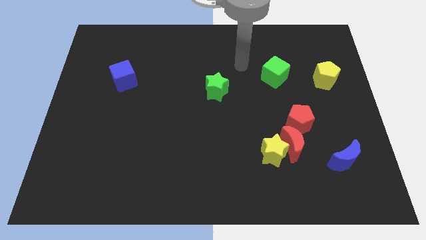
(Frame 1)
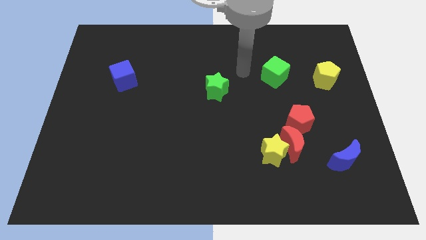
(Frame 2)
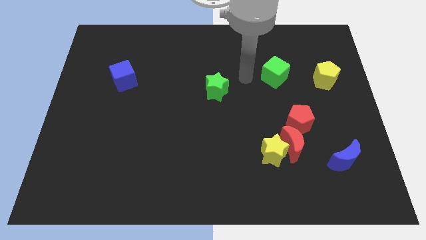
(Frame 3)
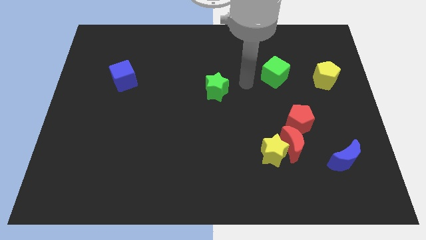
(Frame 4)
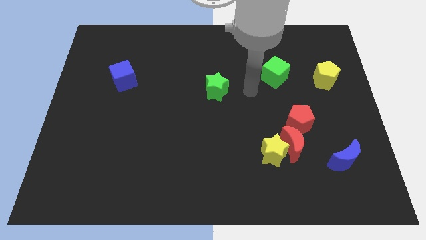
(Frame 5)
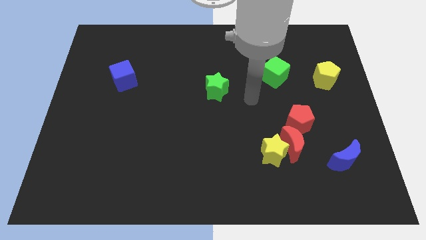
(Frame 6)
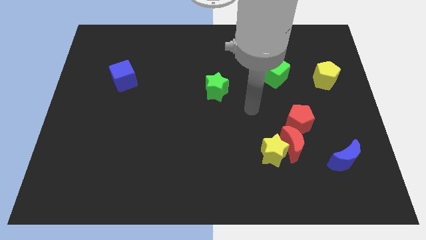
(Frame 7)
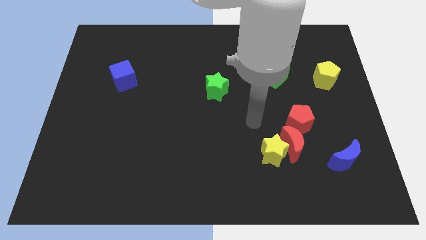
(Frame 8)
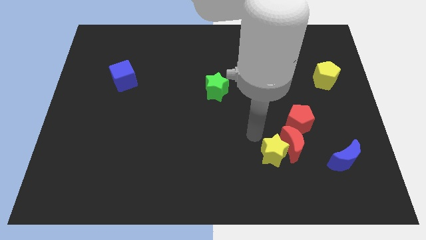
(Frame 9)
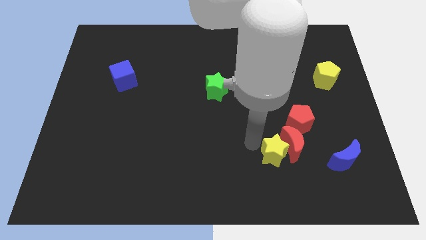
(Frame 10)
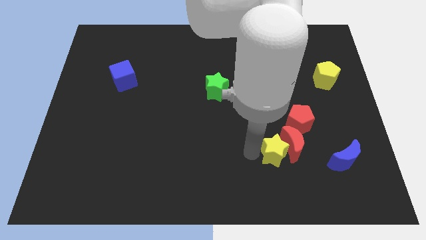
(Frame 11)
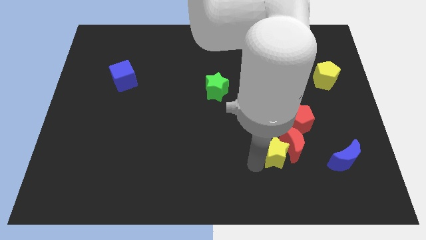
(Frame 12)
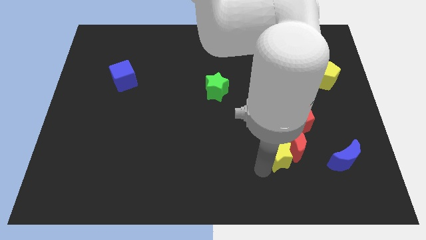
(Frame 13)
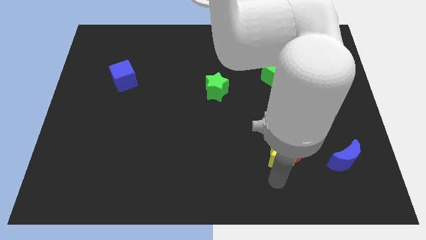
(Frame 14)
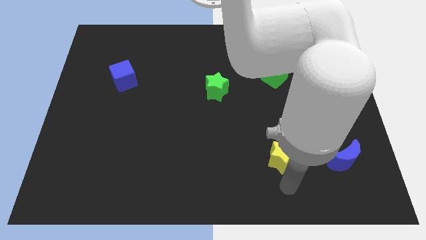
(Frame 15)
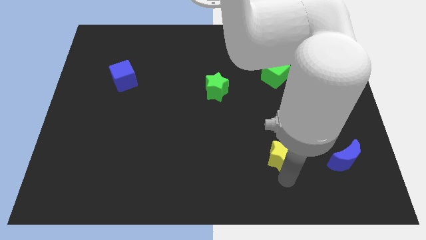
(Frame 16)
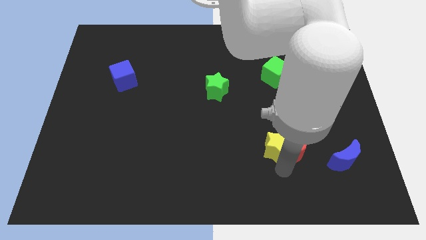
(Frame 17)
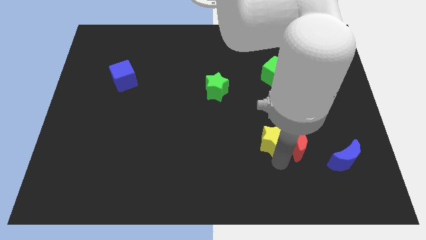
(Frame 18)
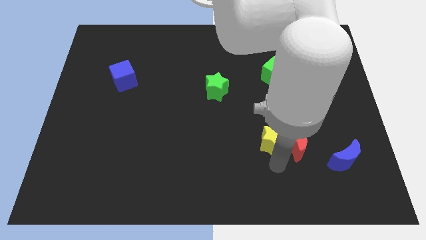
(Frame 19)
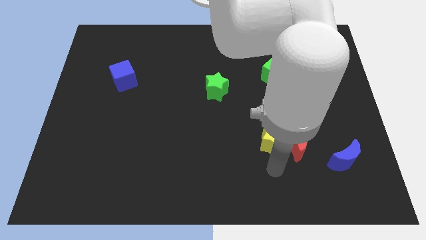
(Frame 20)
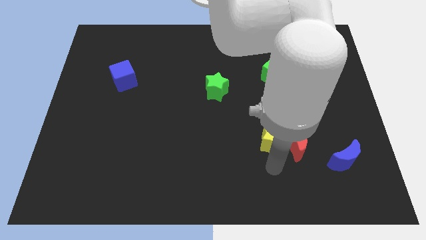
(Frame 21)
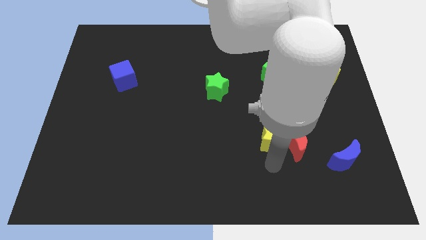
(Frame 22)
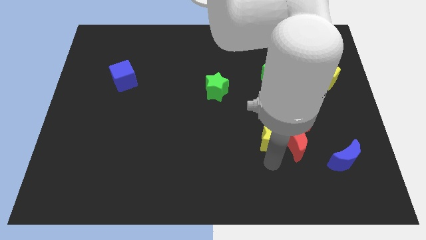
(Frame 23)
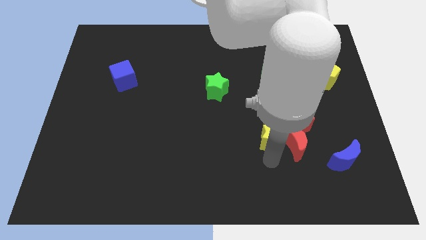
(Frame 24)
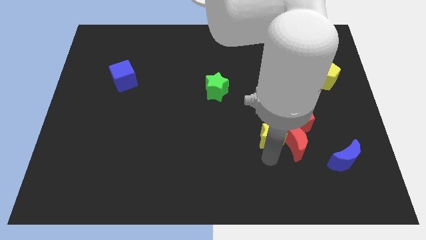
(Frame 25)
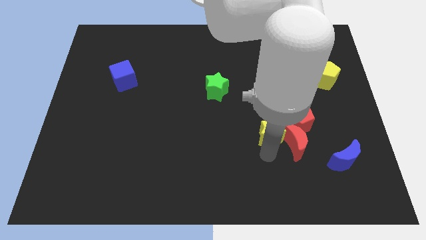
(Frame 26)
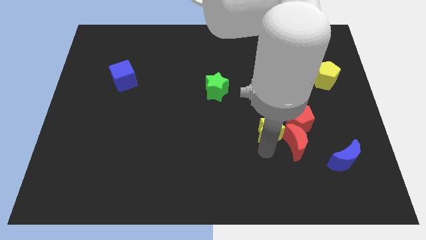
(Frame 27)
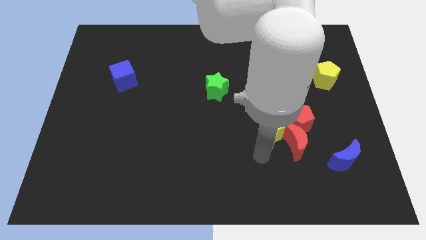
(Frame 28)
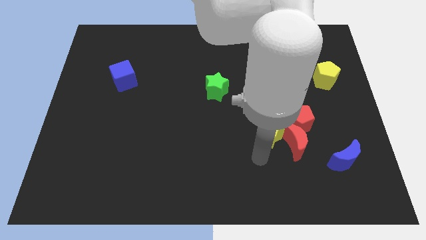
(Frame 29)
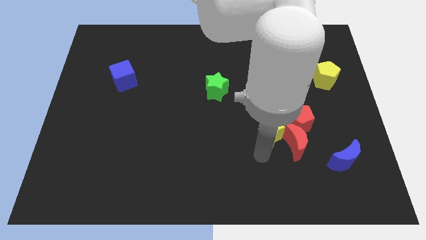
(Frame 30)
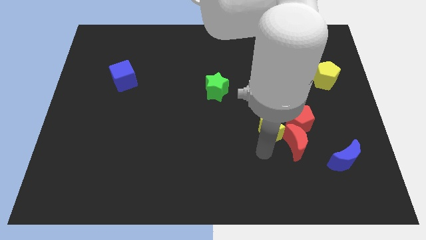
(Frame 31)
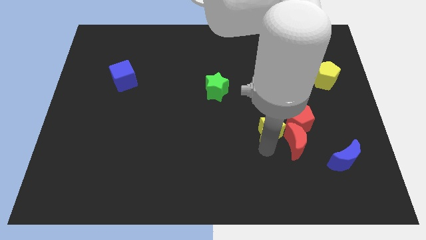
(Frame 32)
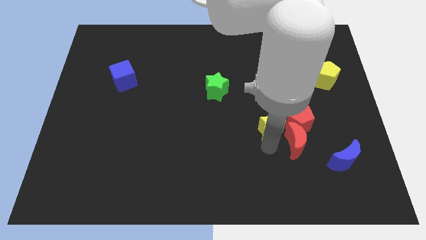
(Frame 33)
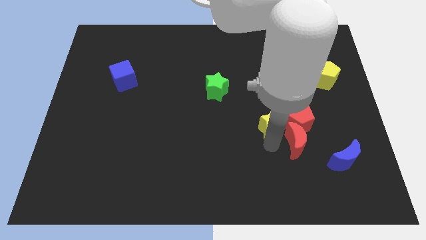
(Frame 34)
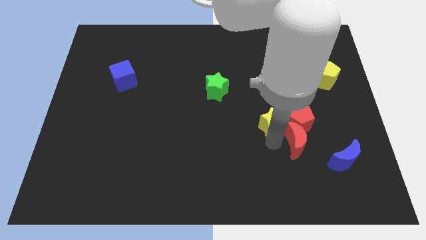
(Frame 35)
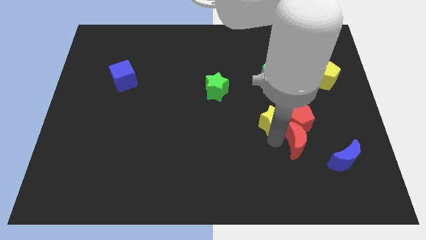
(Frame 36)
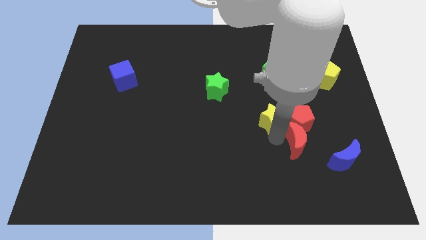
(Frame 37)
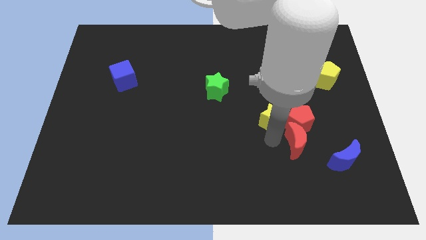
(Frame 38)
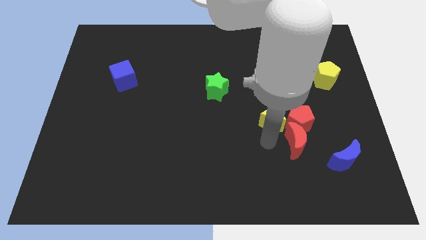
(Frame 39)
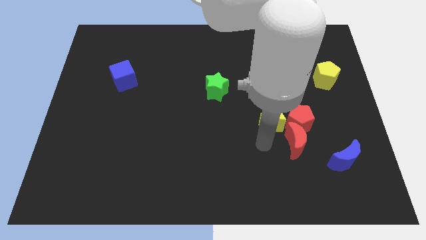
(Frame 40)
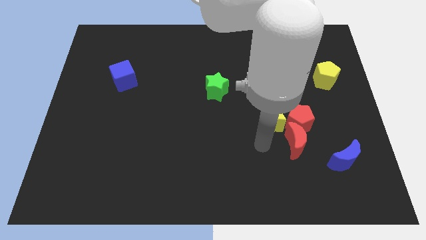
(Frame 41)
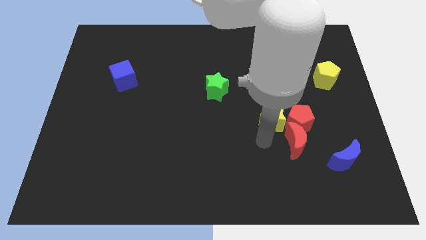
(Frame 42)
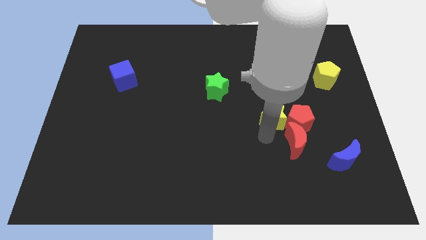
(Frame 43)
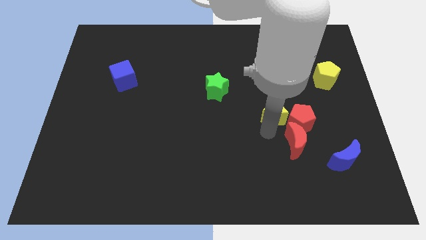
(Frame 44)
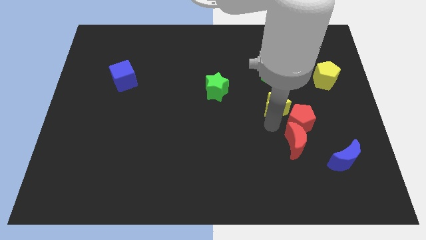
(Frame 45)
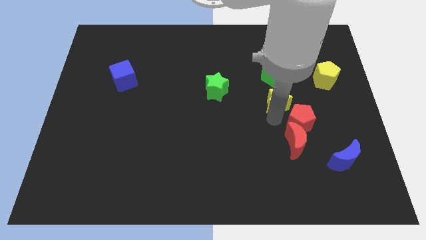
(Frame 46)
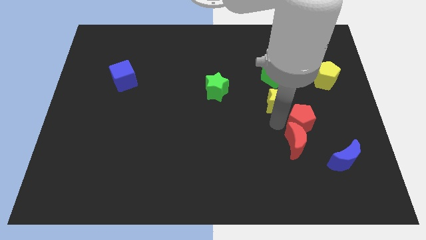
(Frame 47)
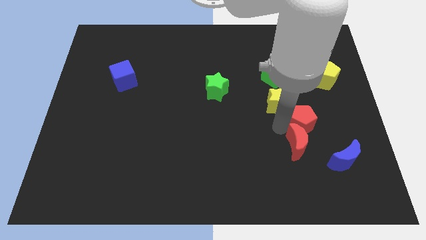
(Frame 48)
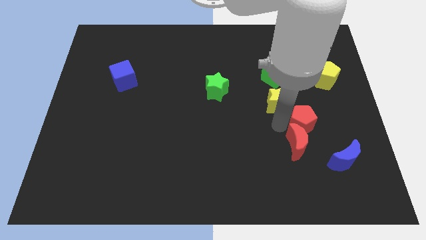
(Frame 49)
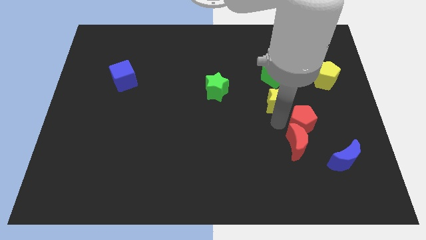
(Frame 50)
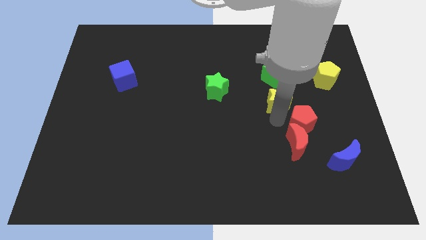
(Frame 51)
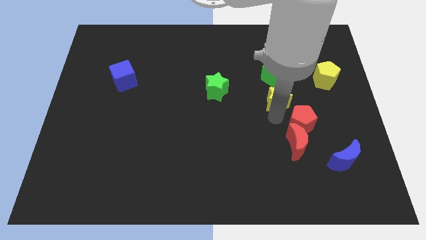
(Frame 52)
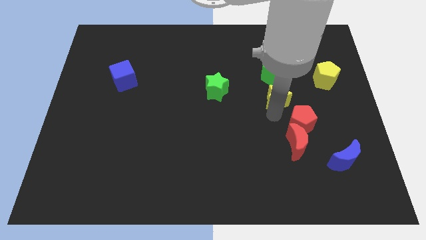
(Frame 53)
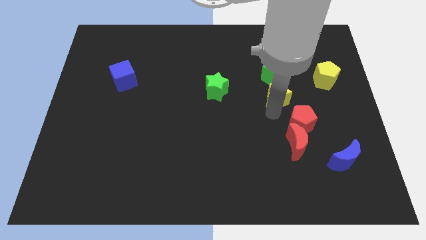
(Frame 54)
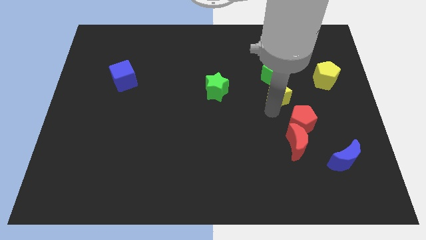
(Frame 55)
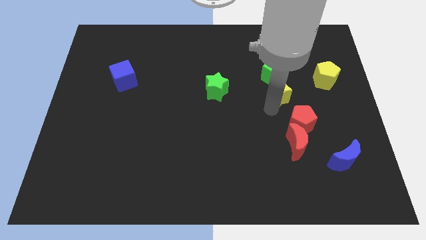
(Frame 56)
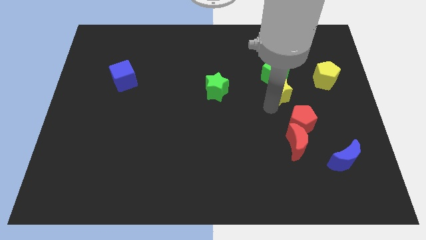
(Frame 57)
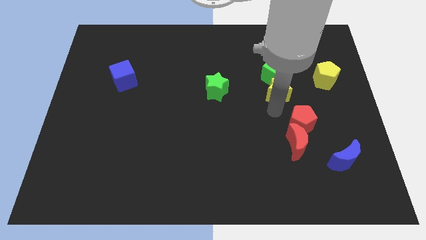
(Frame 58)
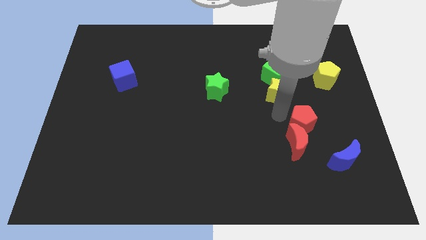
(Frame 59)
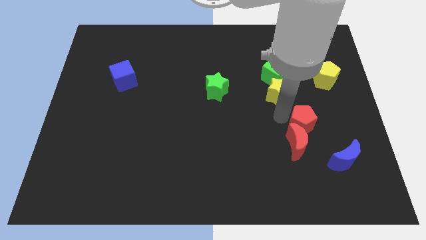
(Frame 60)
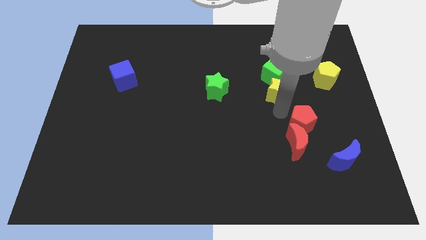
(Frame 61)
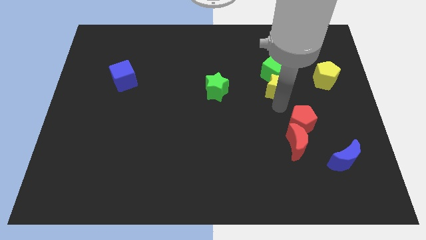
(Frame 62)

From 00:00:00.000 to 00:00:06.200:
slide the yellow star to the green cube
